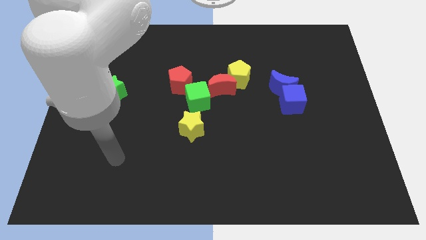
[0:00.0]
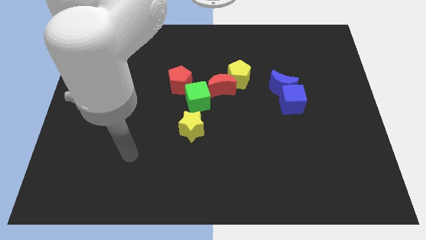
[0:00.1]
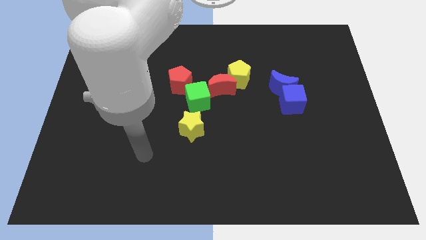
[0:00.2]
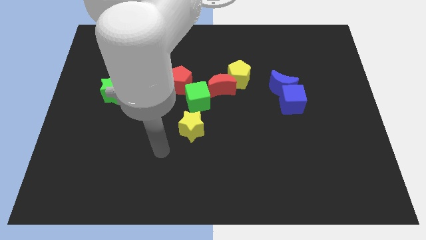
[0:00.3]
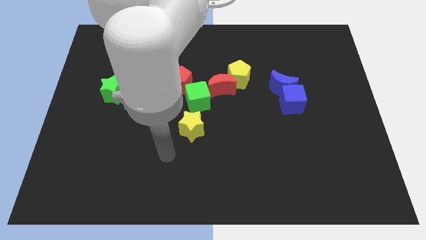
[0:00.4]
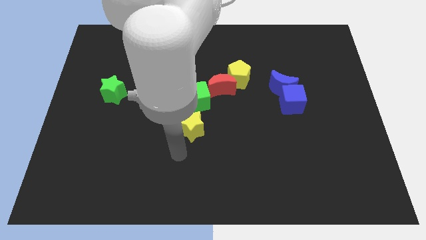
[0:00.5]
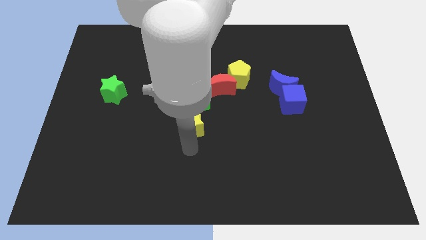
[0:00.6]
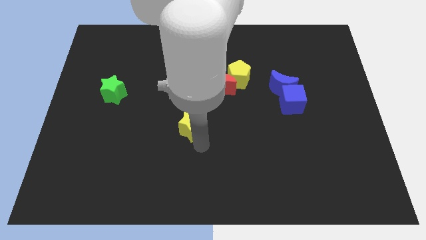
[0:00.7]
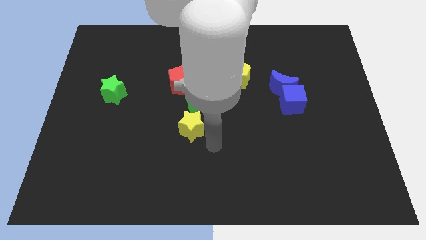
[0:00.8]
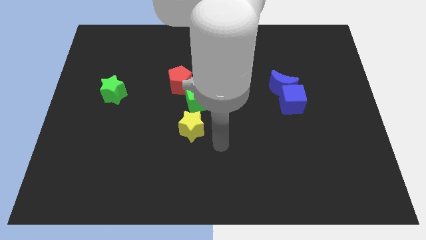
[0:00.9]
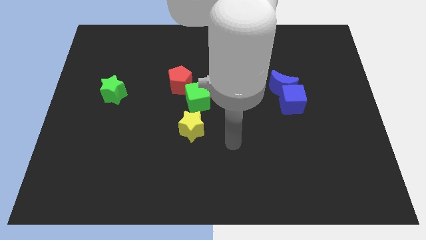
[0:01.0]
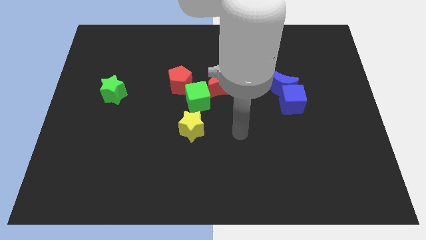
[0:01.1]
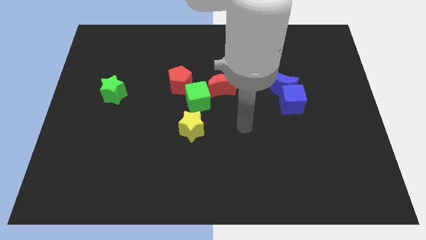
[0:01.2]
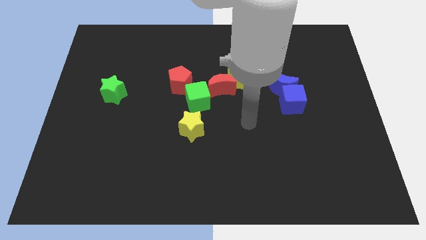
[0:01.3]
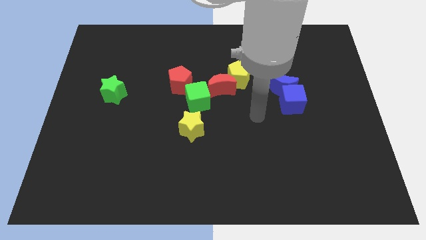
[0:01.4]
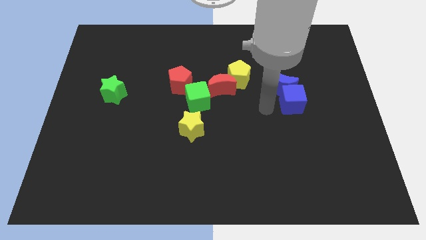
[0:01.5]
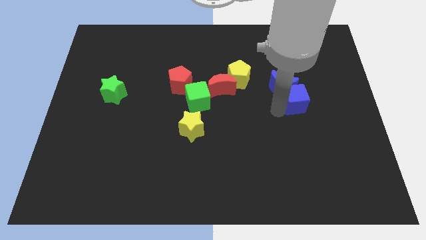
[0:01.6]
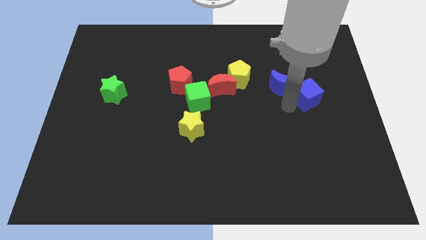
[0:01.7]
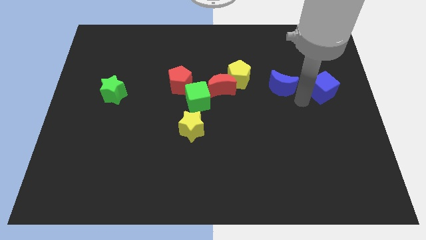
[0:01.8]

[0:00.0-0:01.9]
move the blue moon away from the blue cube

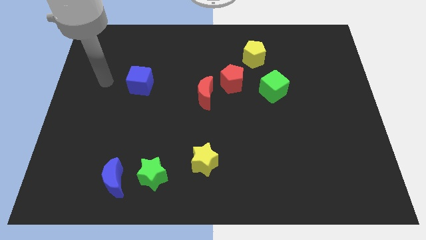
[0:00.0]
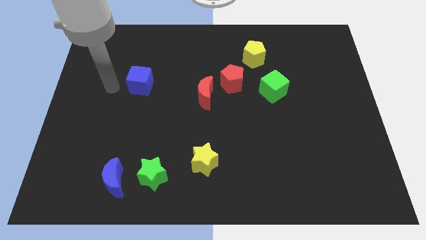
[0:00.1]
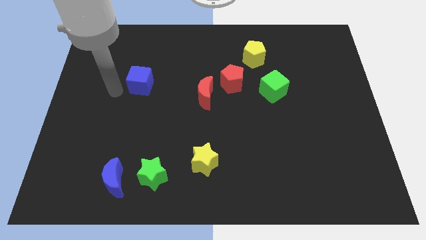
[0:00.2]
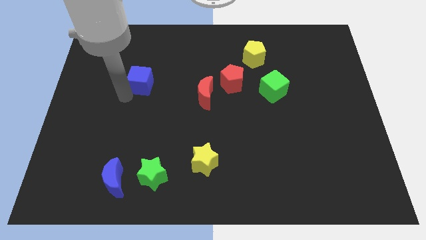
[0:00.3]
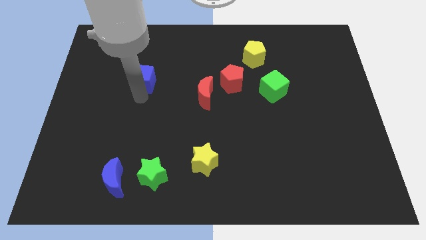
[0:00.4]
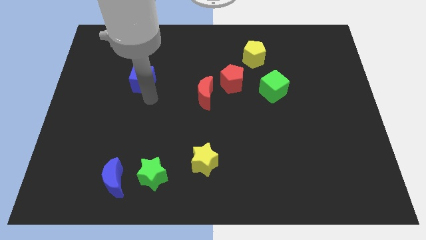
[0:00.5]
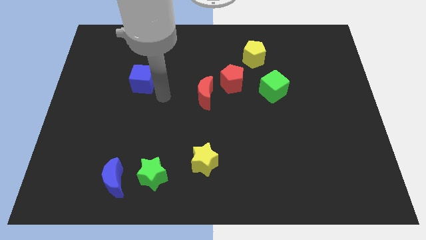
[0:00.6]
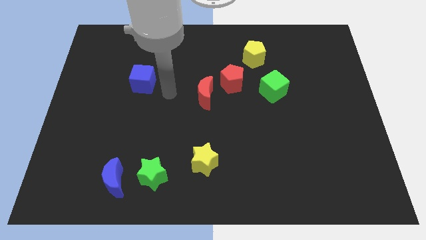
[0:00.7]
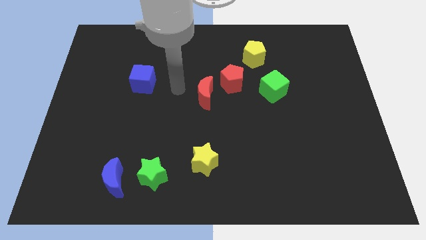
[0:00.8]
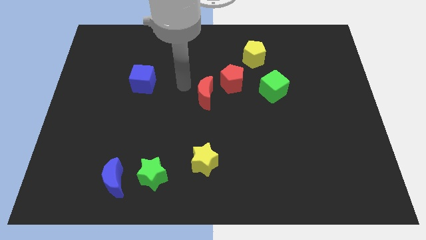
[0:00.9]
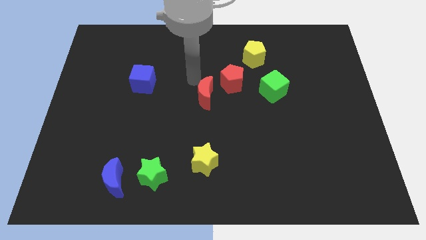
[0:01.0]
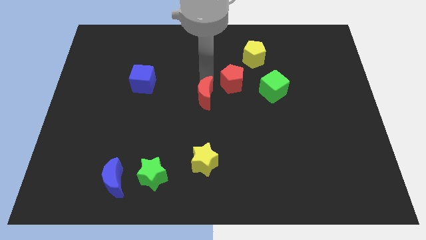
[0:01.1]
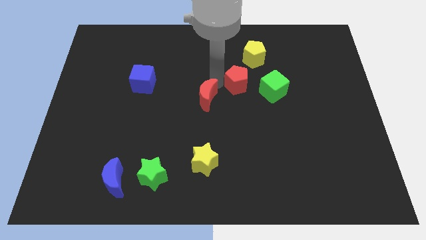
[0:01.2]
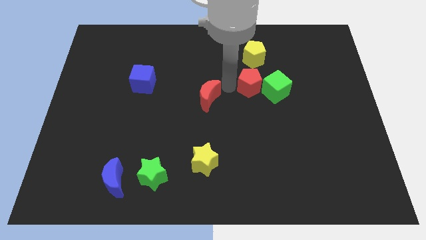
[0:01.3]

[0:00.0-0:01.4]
pull the red moon apart from the red pentagon

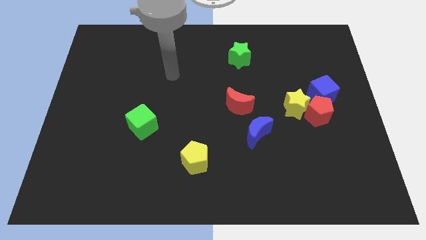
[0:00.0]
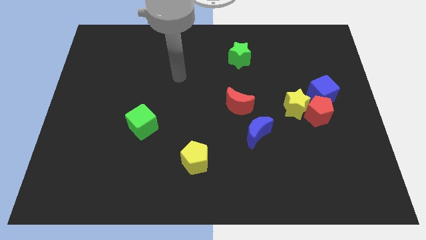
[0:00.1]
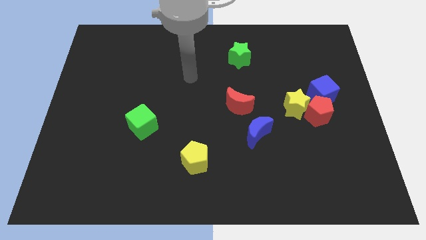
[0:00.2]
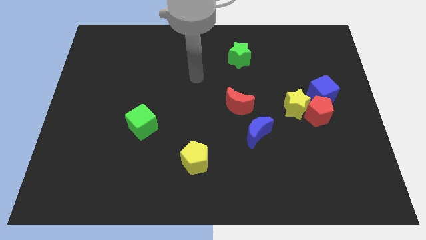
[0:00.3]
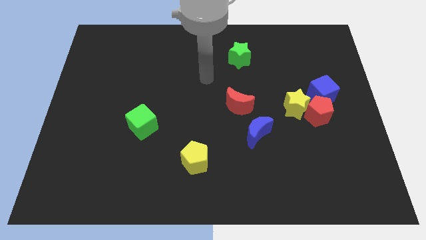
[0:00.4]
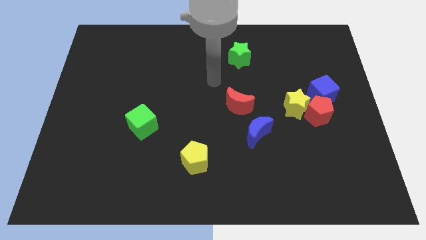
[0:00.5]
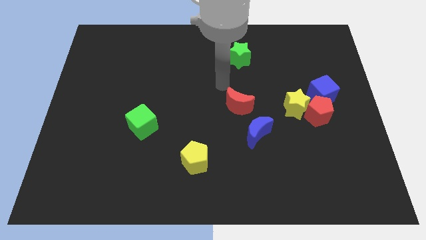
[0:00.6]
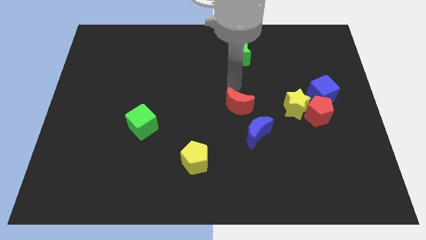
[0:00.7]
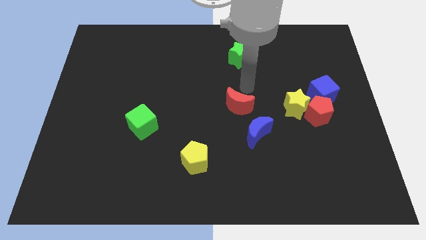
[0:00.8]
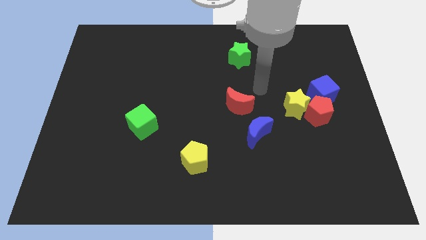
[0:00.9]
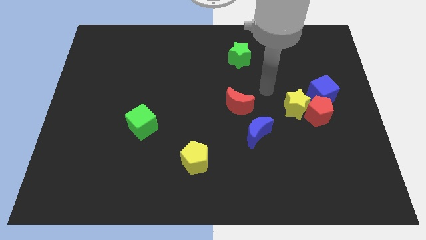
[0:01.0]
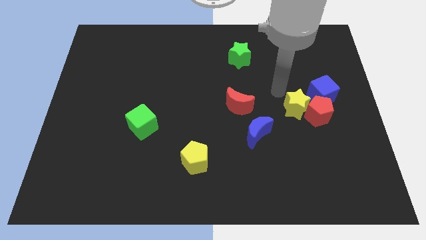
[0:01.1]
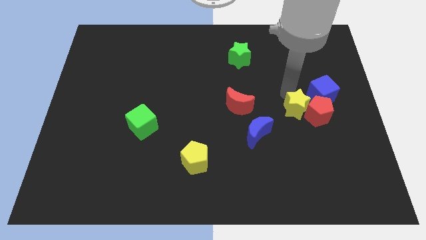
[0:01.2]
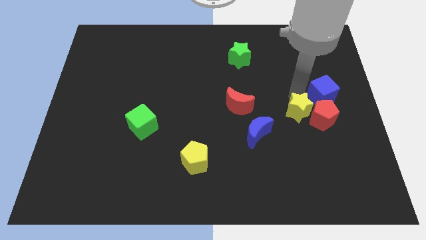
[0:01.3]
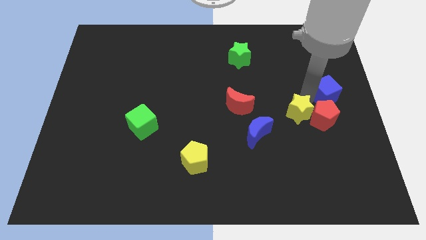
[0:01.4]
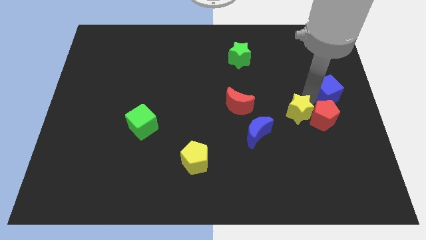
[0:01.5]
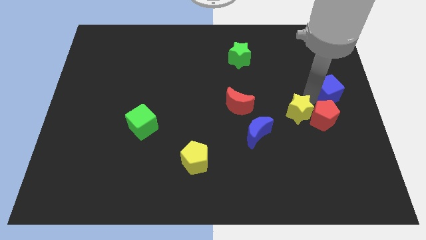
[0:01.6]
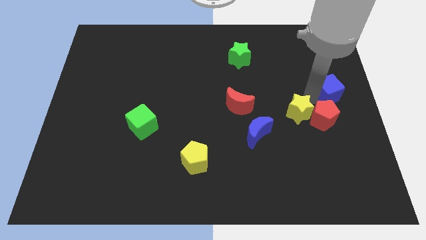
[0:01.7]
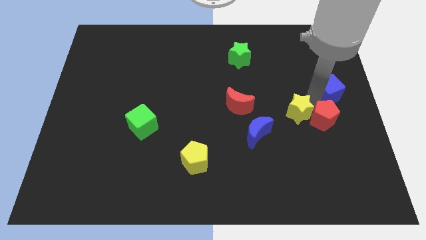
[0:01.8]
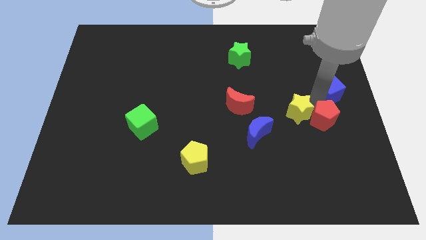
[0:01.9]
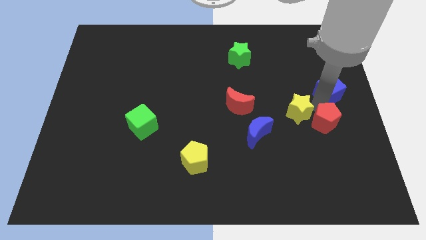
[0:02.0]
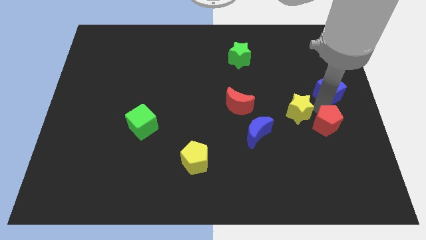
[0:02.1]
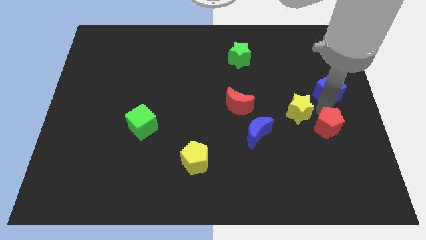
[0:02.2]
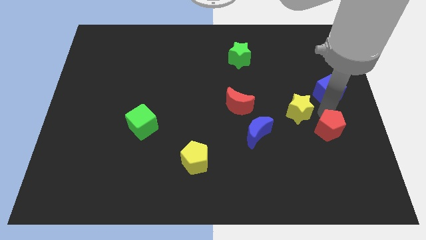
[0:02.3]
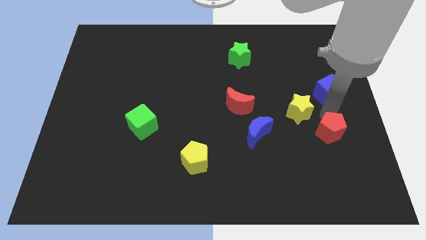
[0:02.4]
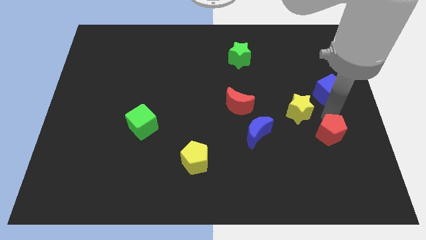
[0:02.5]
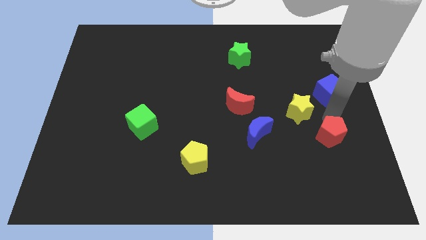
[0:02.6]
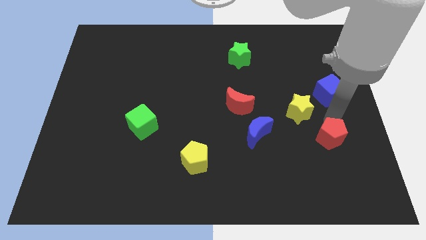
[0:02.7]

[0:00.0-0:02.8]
separate the red pentagon from the yellow star and blue cube

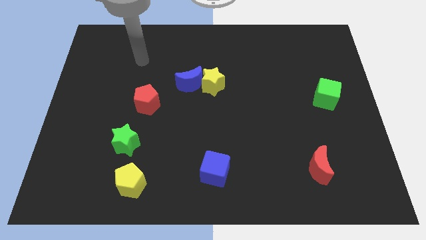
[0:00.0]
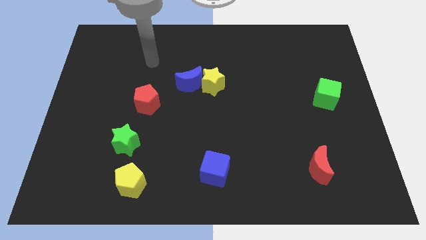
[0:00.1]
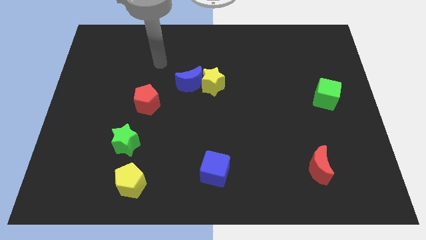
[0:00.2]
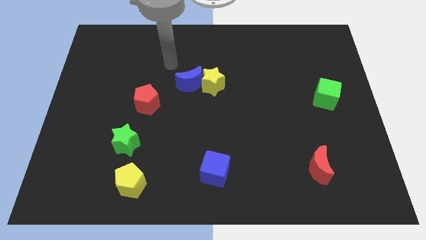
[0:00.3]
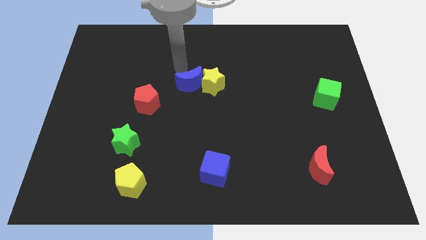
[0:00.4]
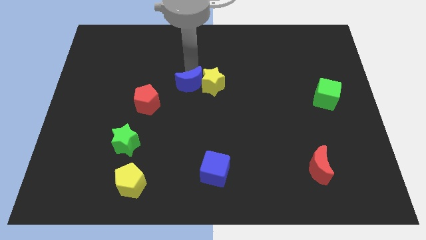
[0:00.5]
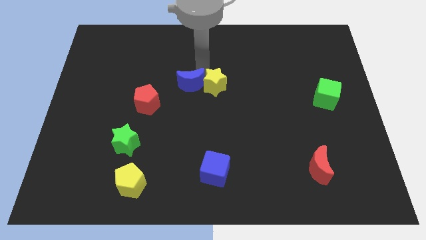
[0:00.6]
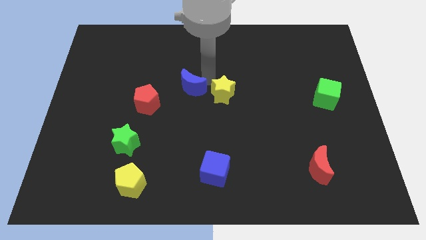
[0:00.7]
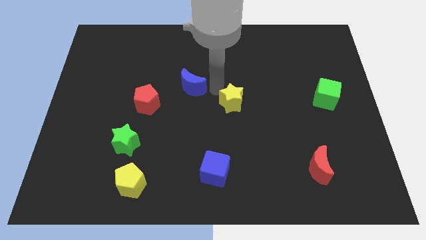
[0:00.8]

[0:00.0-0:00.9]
separate the blue moon from the yellow star

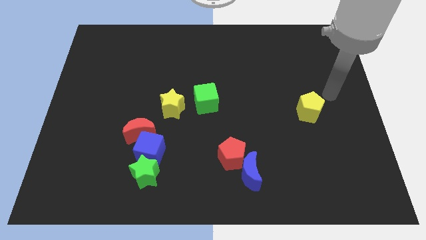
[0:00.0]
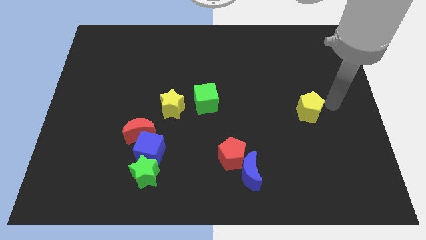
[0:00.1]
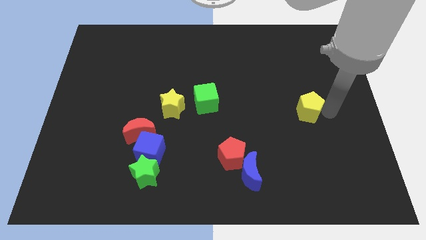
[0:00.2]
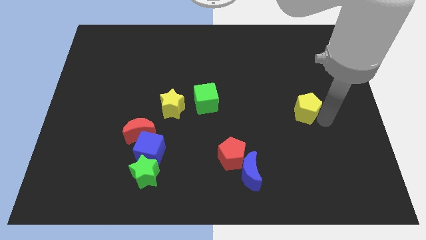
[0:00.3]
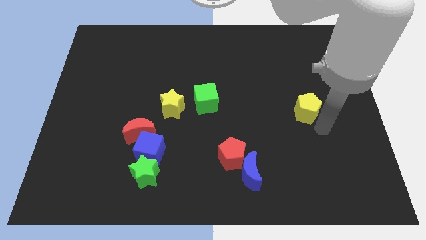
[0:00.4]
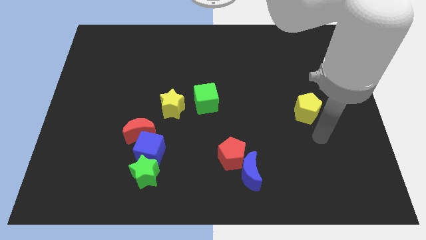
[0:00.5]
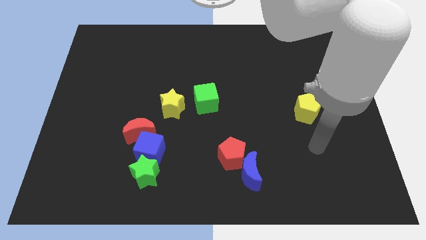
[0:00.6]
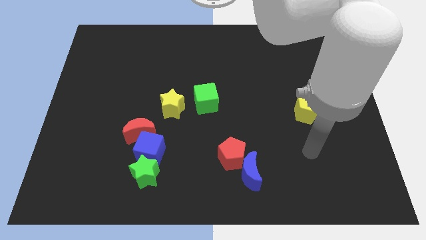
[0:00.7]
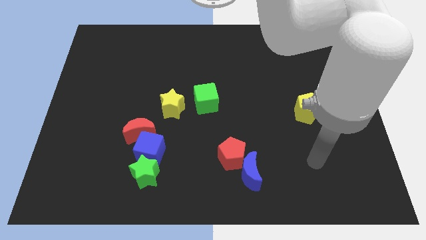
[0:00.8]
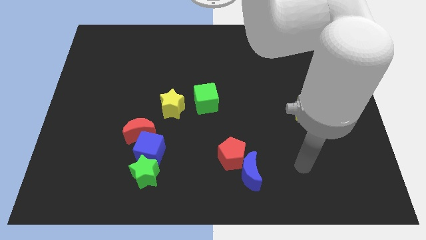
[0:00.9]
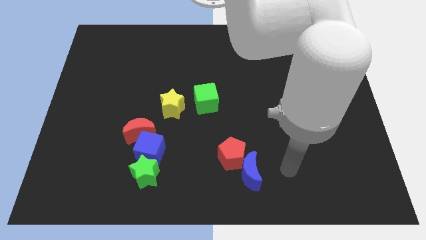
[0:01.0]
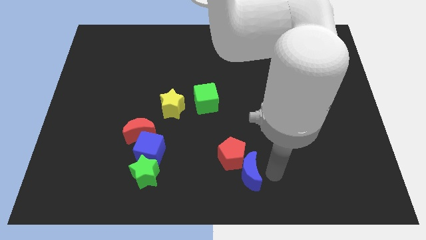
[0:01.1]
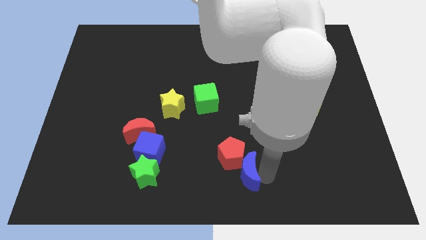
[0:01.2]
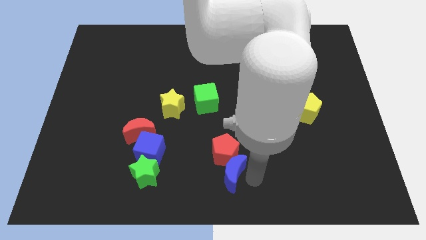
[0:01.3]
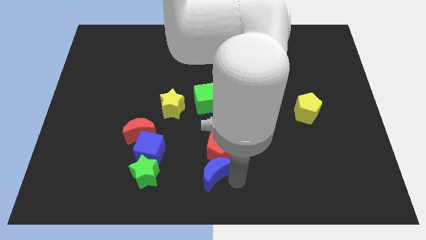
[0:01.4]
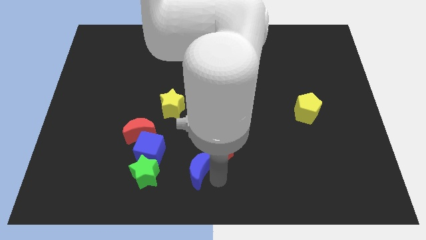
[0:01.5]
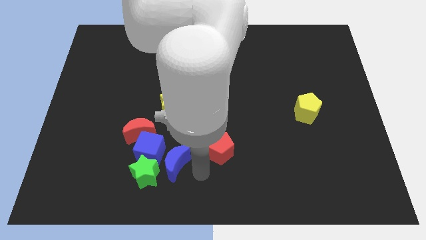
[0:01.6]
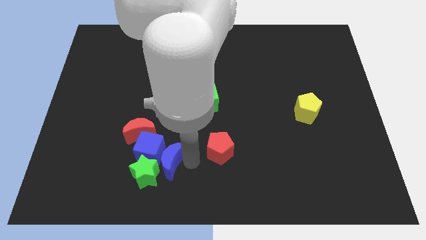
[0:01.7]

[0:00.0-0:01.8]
separate the red pentagon from the blue moon

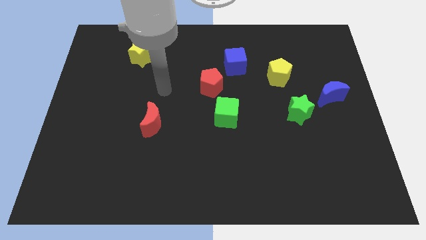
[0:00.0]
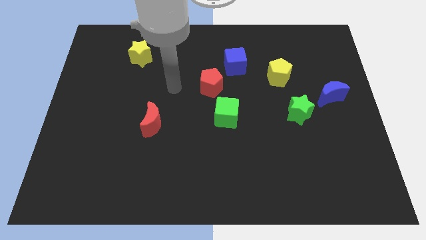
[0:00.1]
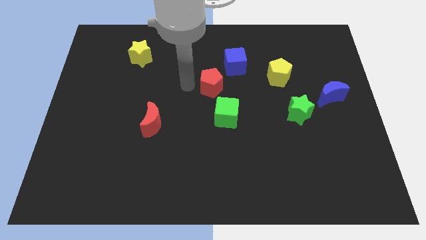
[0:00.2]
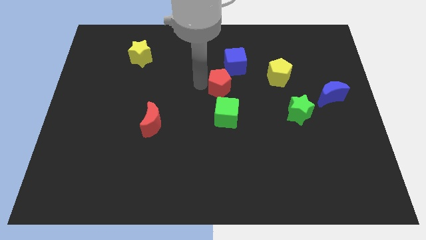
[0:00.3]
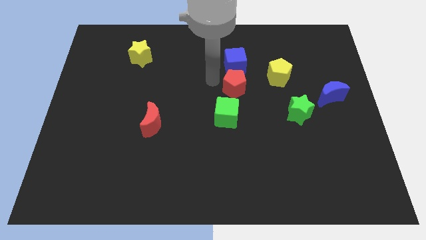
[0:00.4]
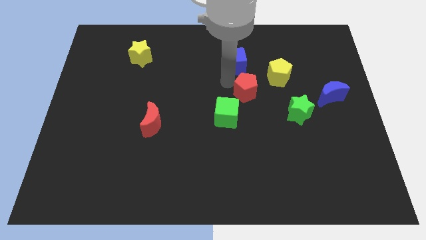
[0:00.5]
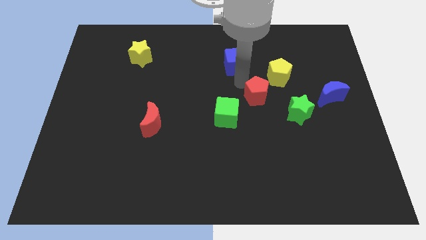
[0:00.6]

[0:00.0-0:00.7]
move the blue cube away from the red pentagon
